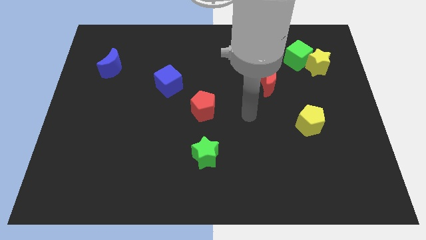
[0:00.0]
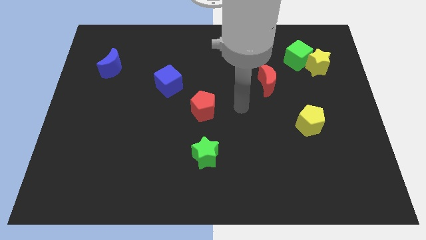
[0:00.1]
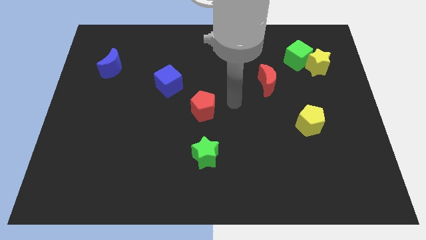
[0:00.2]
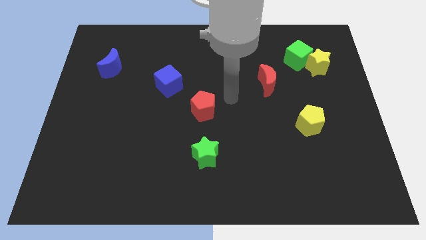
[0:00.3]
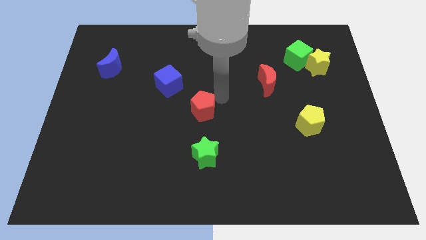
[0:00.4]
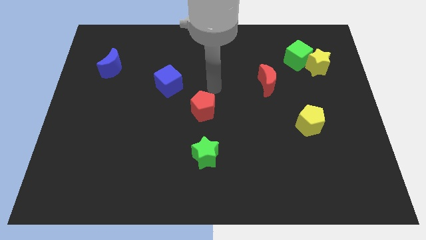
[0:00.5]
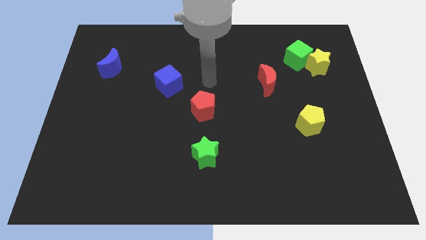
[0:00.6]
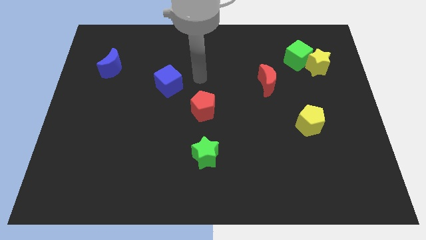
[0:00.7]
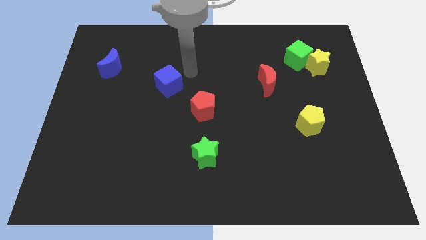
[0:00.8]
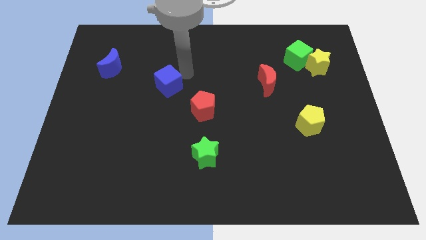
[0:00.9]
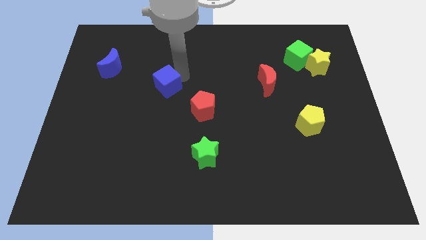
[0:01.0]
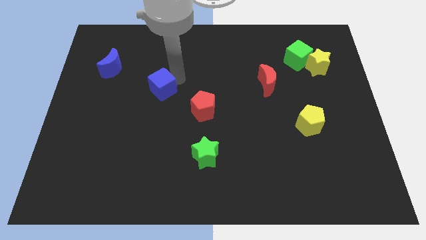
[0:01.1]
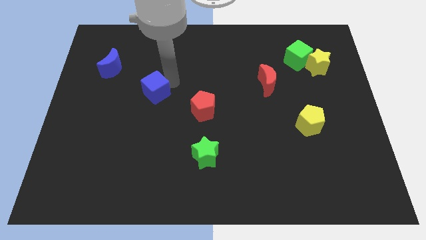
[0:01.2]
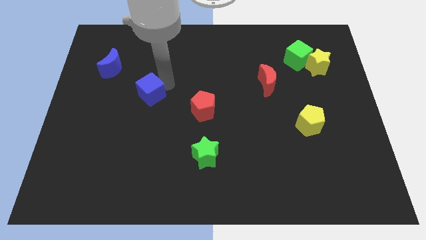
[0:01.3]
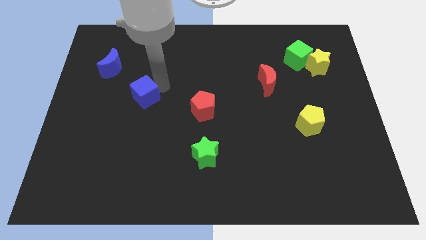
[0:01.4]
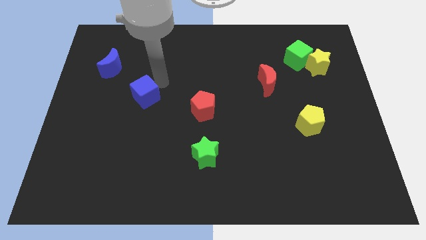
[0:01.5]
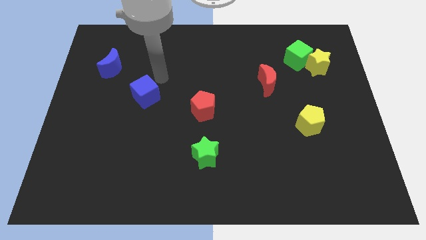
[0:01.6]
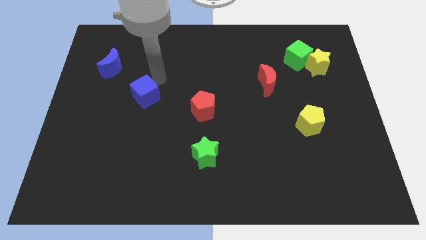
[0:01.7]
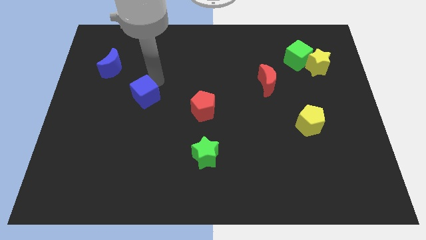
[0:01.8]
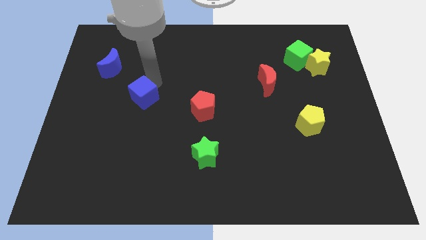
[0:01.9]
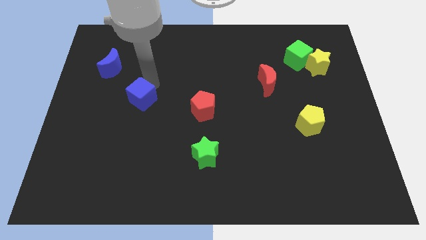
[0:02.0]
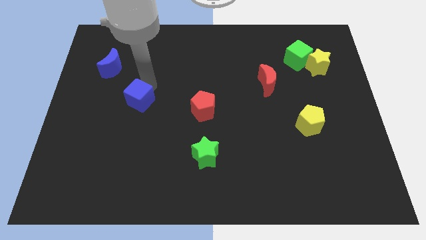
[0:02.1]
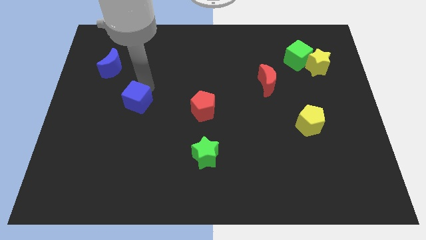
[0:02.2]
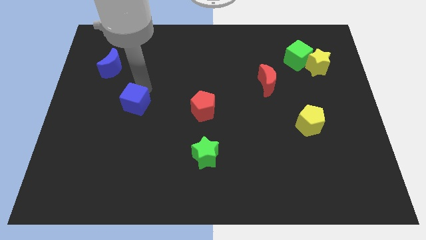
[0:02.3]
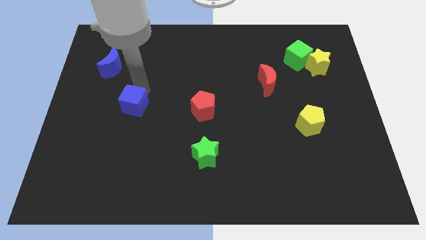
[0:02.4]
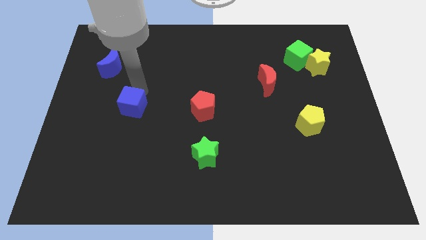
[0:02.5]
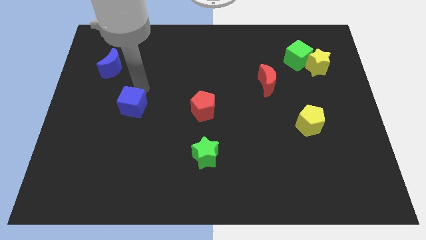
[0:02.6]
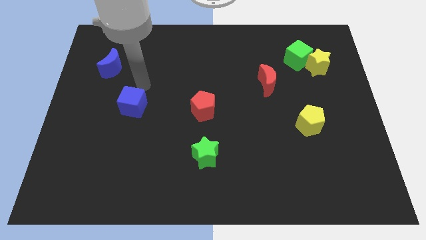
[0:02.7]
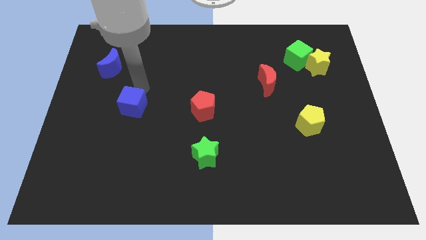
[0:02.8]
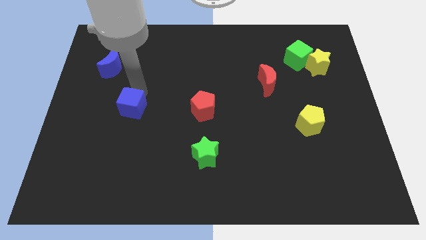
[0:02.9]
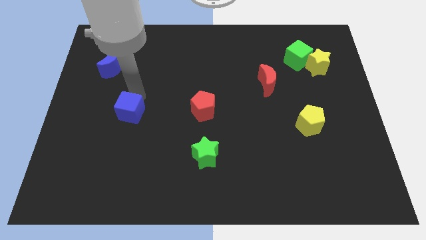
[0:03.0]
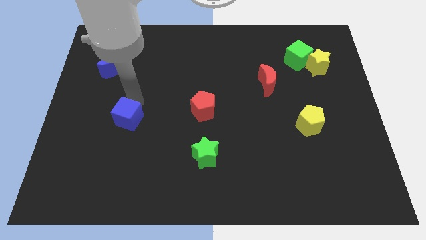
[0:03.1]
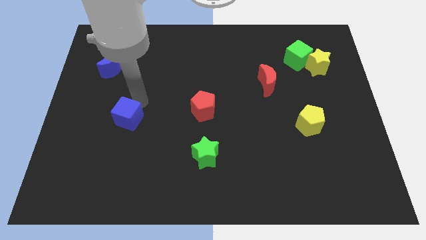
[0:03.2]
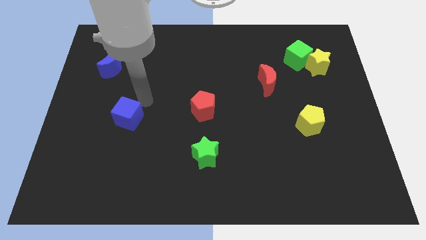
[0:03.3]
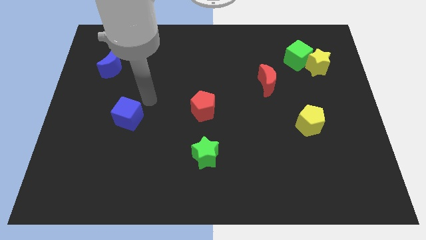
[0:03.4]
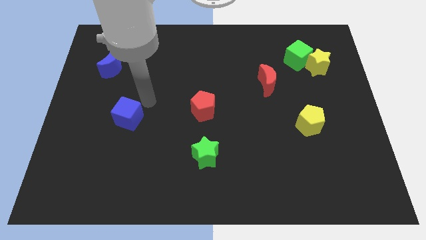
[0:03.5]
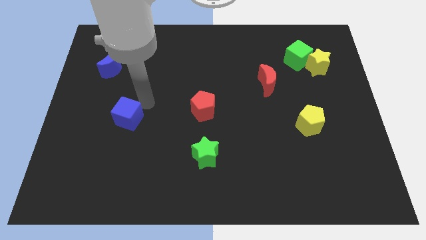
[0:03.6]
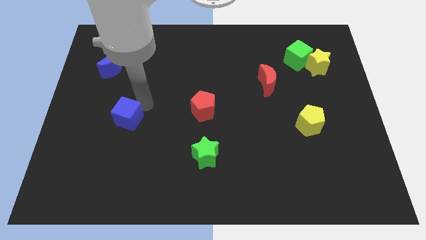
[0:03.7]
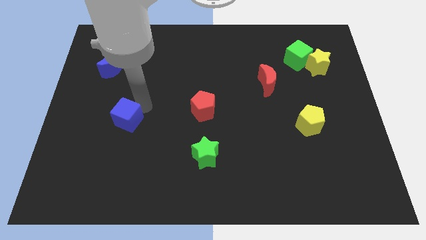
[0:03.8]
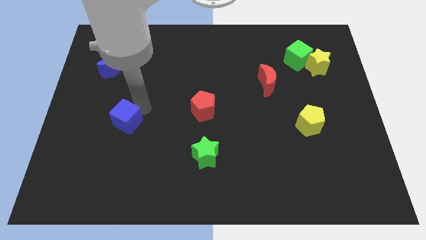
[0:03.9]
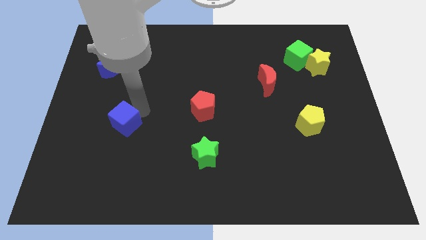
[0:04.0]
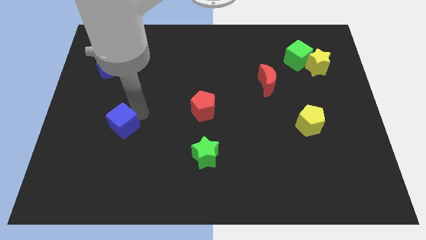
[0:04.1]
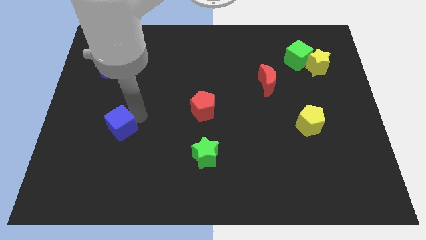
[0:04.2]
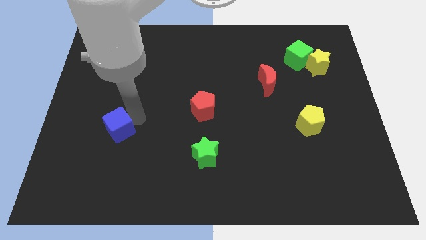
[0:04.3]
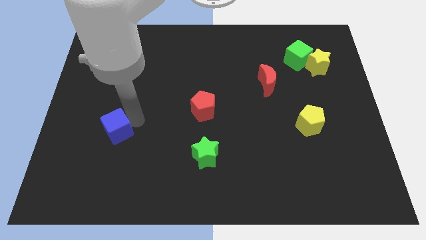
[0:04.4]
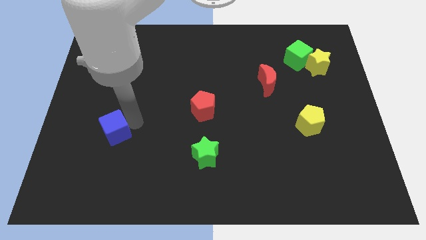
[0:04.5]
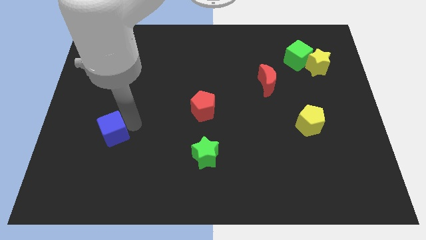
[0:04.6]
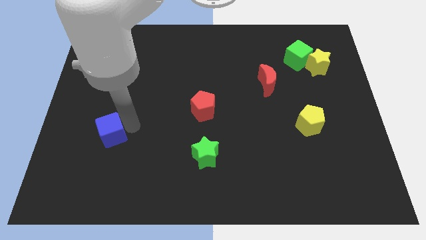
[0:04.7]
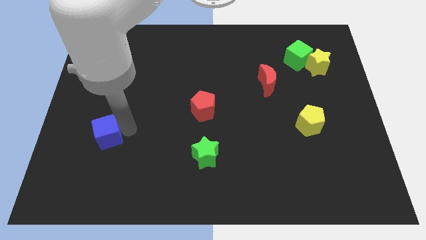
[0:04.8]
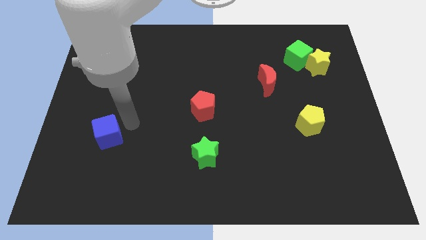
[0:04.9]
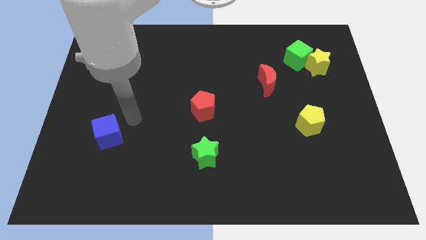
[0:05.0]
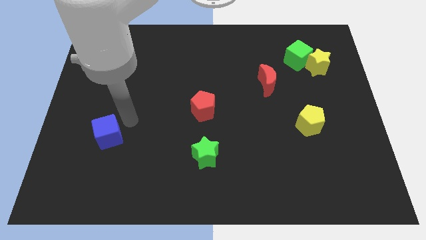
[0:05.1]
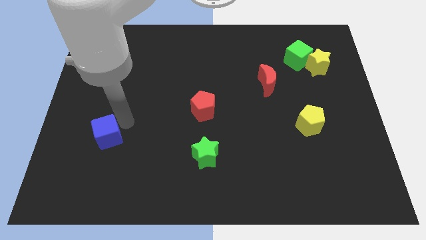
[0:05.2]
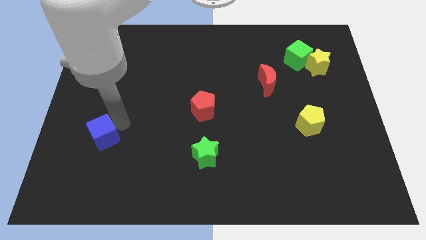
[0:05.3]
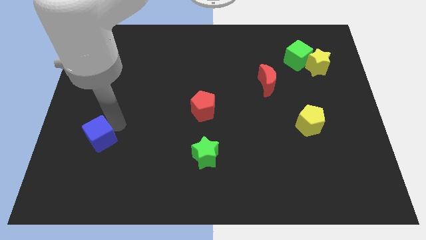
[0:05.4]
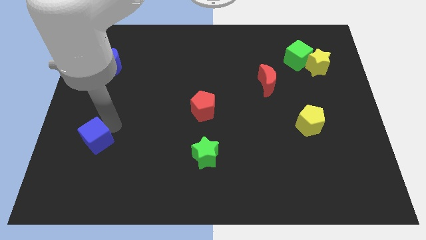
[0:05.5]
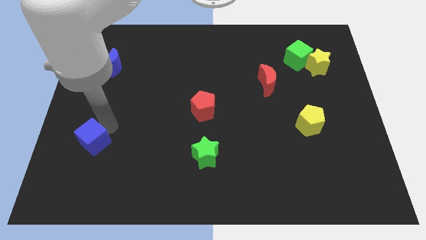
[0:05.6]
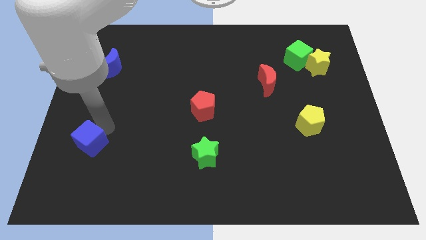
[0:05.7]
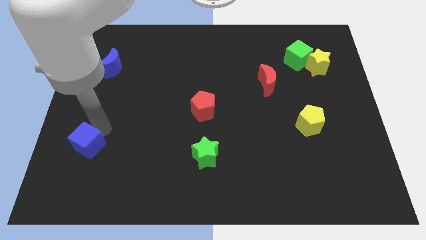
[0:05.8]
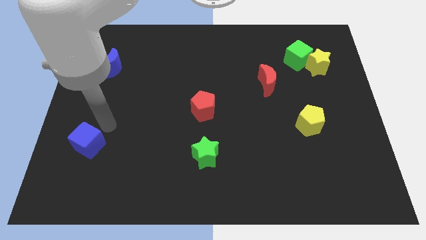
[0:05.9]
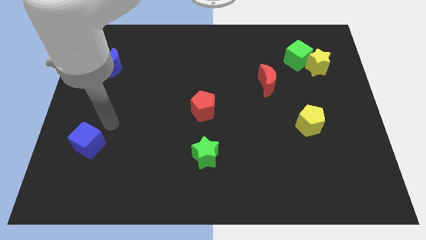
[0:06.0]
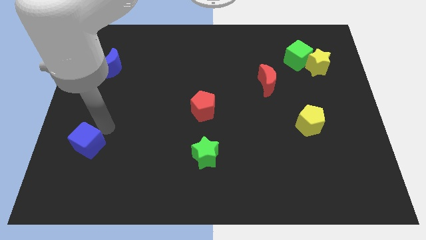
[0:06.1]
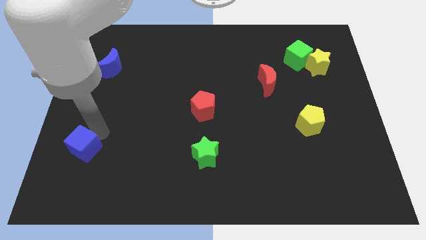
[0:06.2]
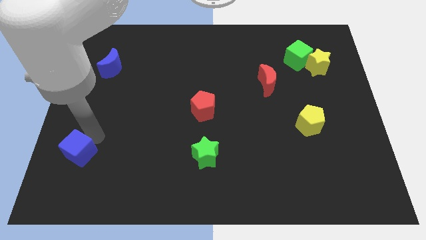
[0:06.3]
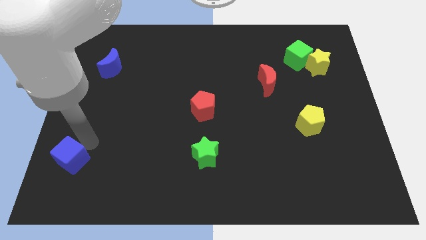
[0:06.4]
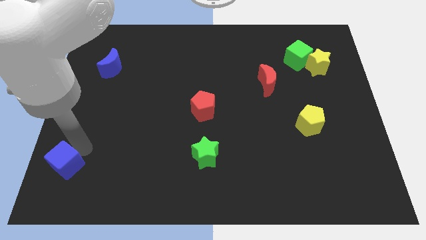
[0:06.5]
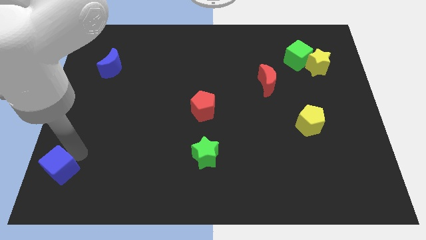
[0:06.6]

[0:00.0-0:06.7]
push the blue cube to the bottom left

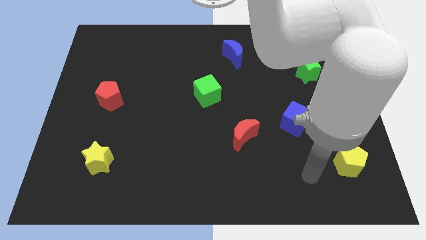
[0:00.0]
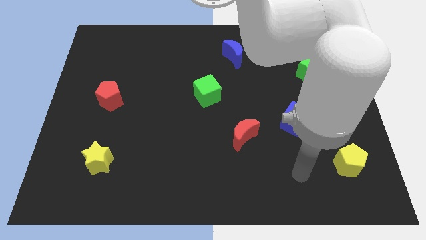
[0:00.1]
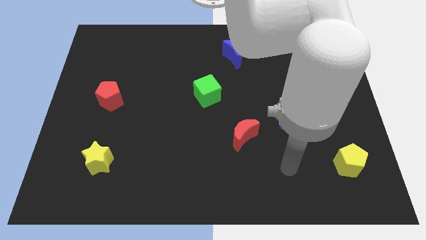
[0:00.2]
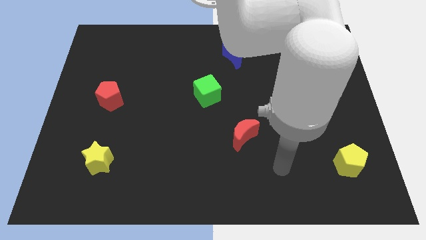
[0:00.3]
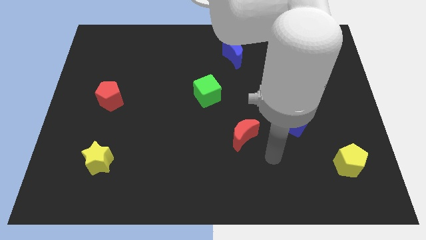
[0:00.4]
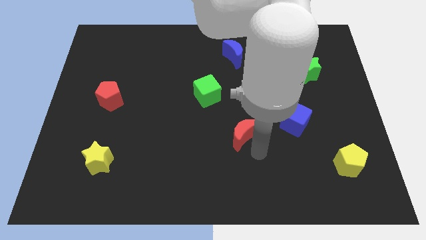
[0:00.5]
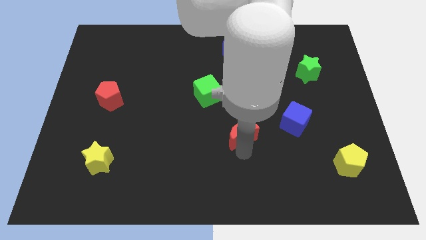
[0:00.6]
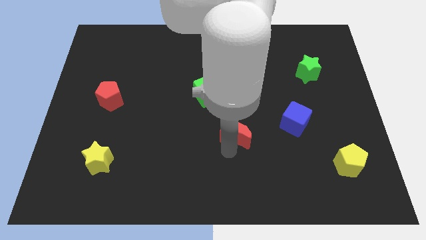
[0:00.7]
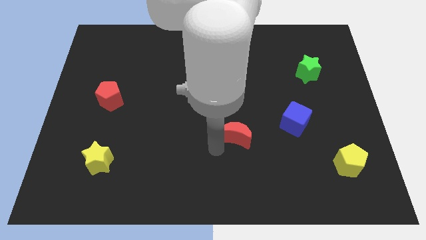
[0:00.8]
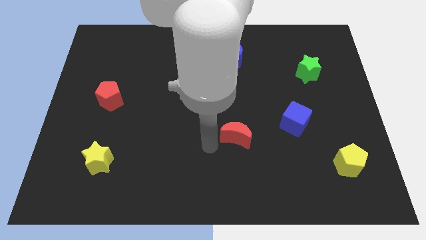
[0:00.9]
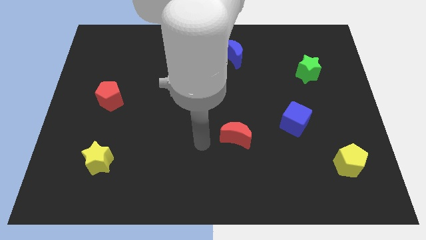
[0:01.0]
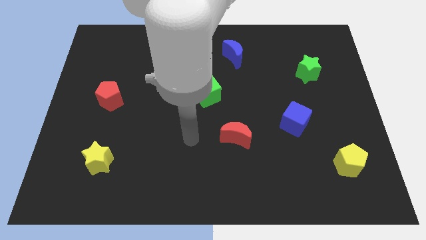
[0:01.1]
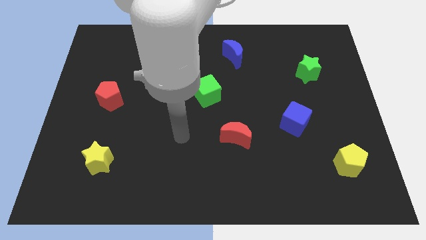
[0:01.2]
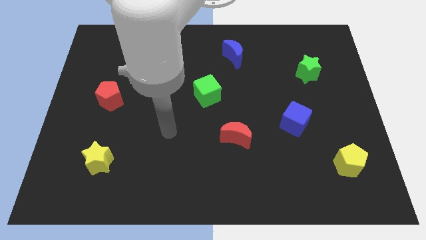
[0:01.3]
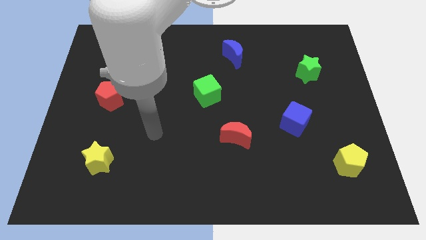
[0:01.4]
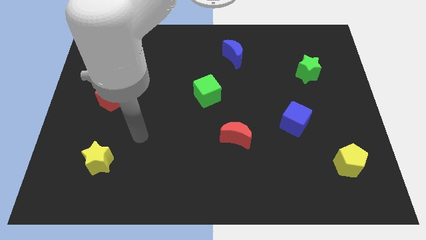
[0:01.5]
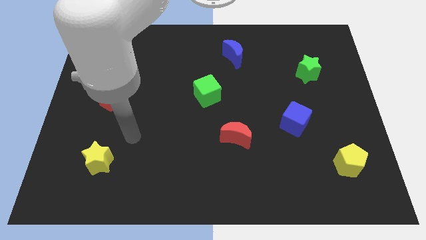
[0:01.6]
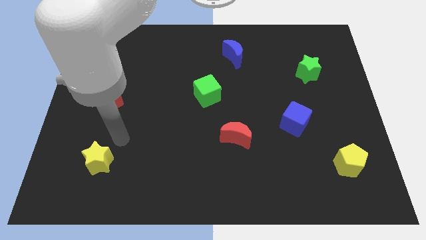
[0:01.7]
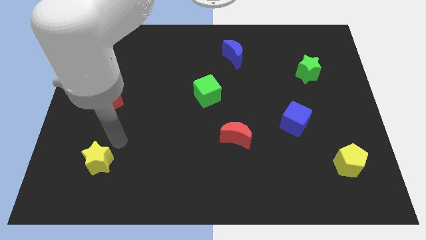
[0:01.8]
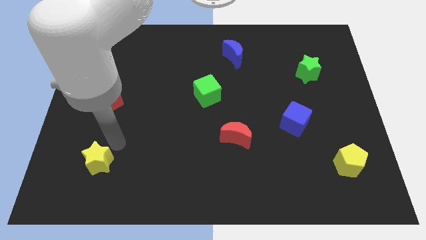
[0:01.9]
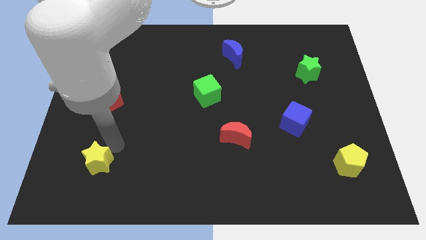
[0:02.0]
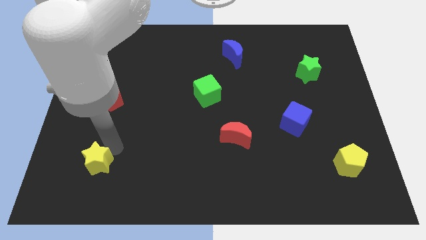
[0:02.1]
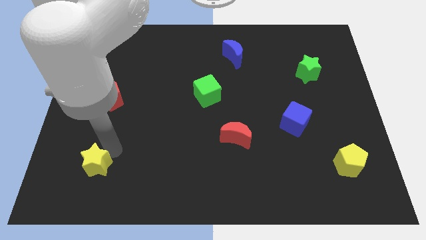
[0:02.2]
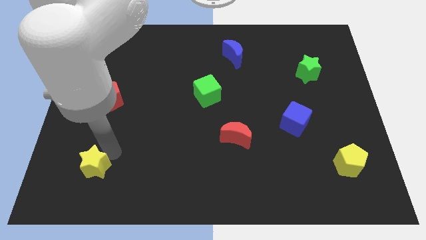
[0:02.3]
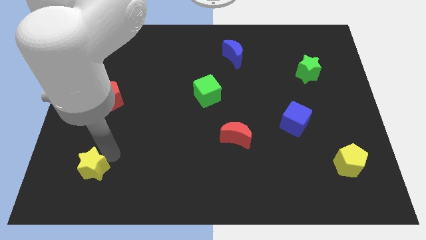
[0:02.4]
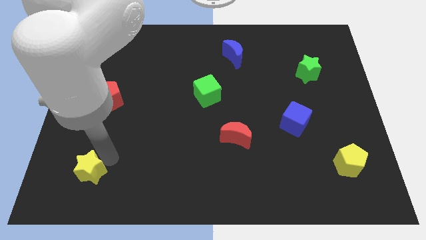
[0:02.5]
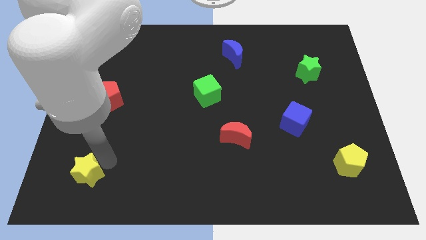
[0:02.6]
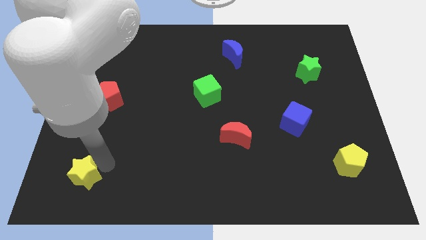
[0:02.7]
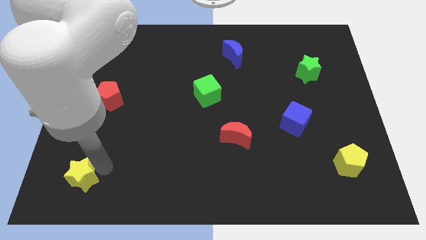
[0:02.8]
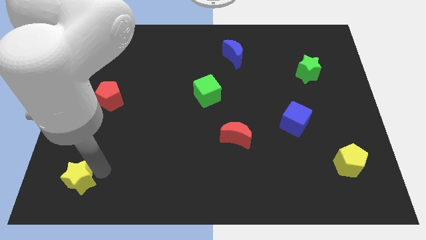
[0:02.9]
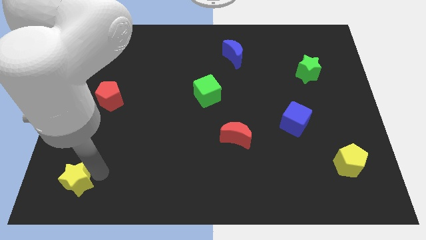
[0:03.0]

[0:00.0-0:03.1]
move the yellow star to the bottom left
